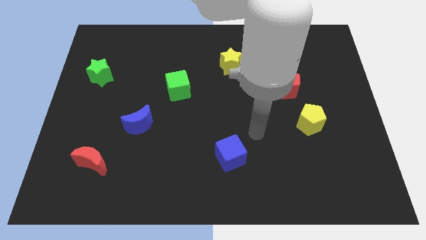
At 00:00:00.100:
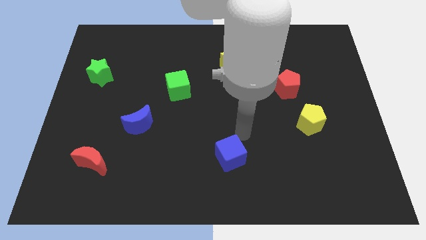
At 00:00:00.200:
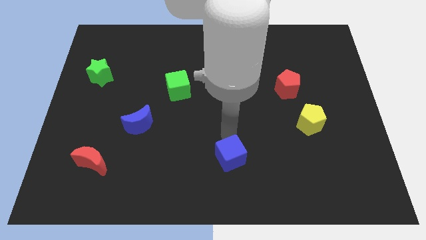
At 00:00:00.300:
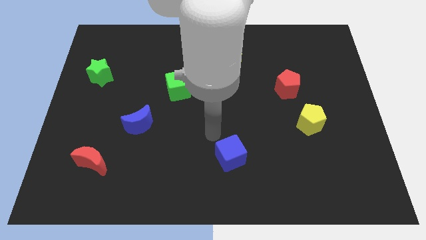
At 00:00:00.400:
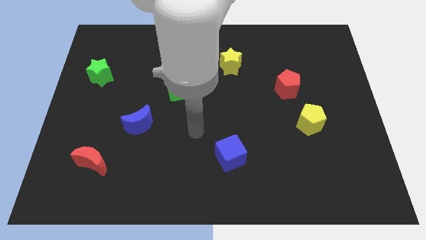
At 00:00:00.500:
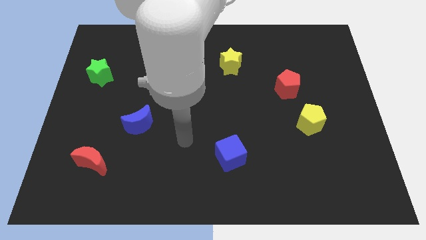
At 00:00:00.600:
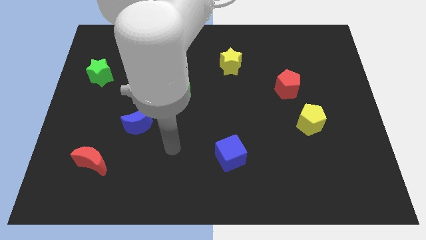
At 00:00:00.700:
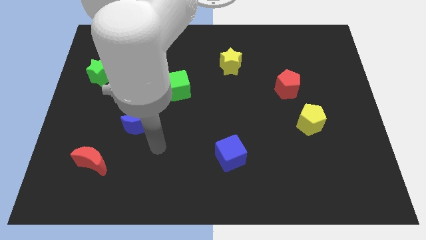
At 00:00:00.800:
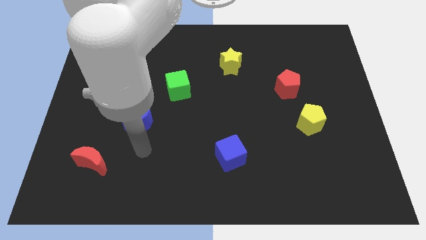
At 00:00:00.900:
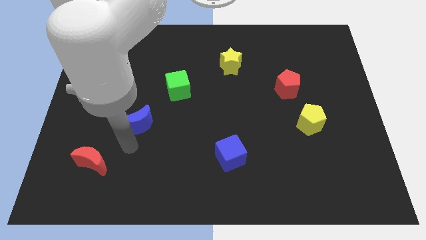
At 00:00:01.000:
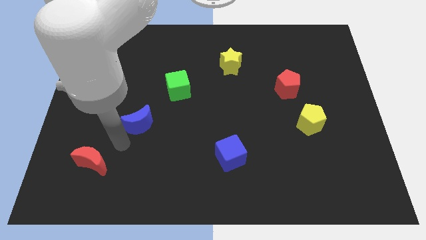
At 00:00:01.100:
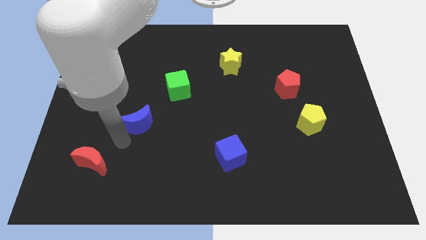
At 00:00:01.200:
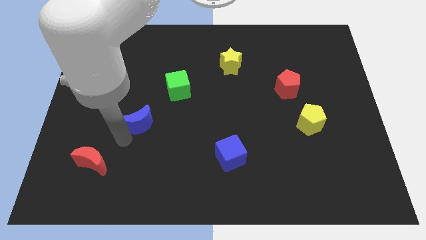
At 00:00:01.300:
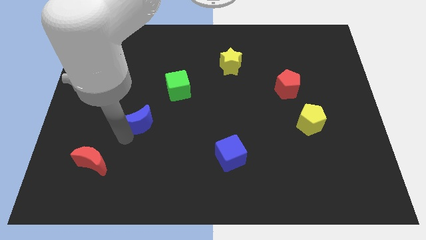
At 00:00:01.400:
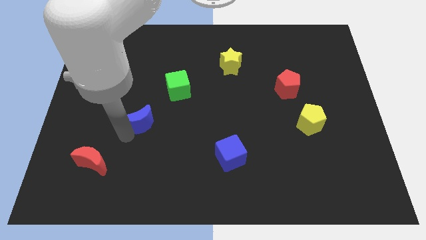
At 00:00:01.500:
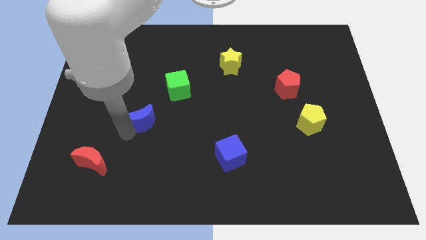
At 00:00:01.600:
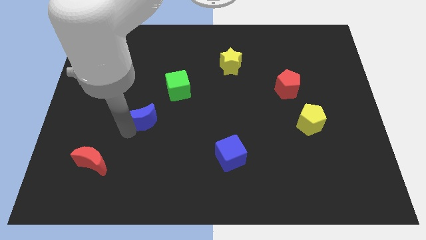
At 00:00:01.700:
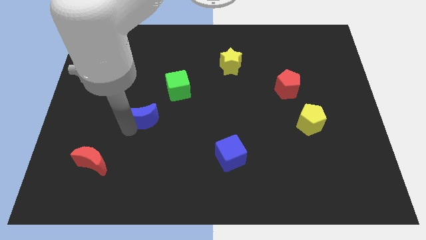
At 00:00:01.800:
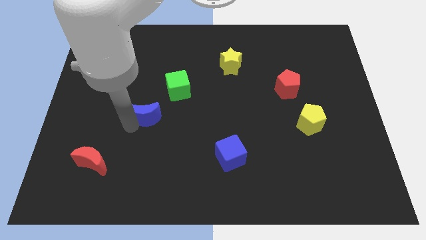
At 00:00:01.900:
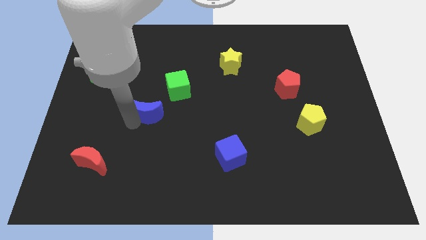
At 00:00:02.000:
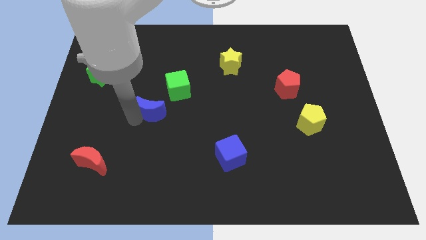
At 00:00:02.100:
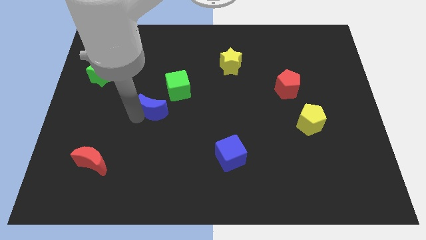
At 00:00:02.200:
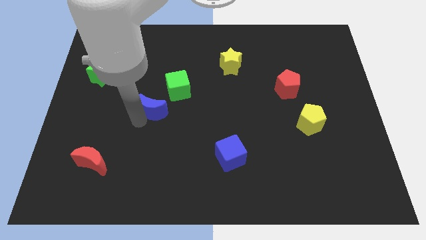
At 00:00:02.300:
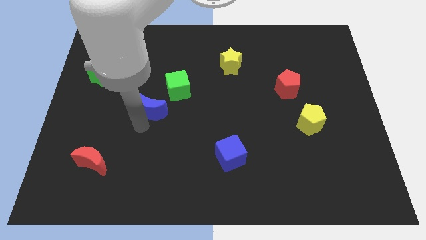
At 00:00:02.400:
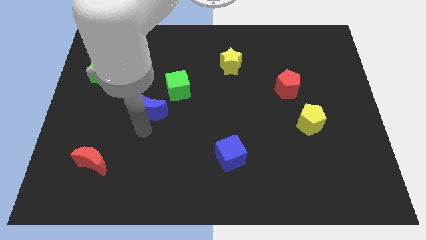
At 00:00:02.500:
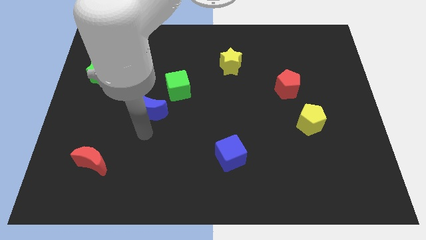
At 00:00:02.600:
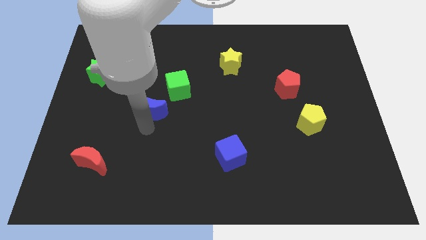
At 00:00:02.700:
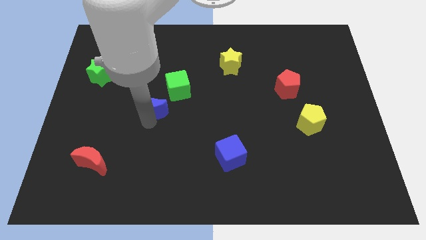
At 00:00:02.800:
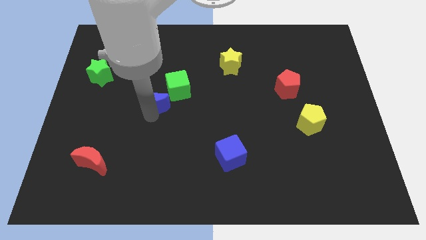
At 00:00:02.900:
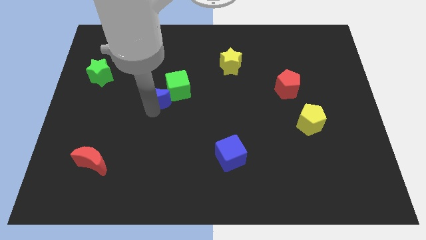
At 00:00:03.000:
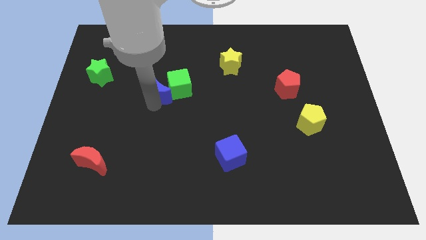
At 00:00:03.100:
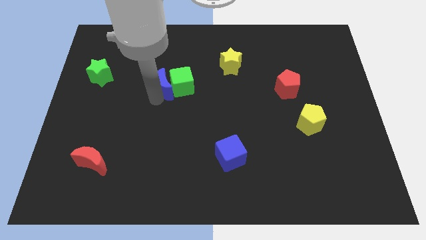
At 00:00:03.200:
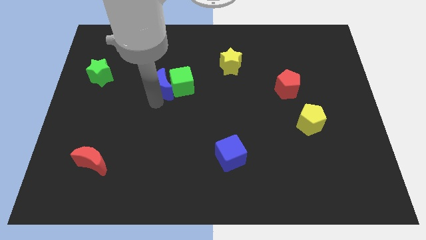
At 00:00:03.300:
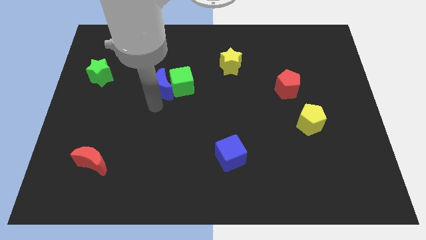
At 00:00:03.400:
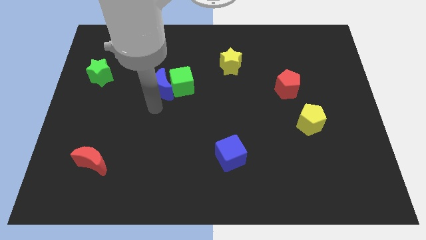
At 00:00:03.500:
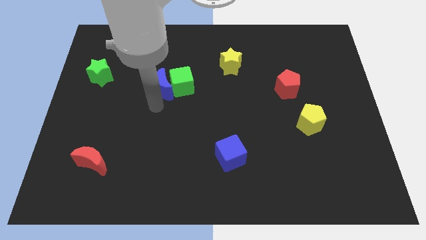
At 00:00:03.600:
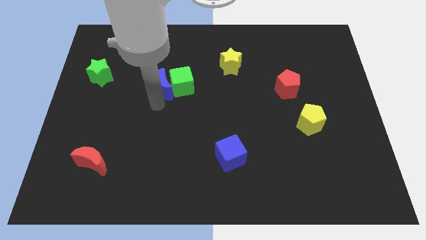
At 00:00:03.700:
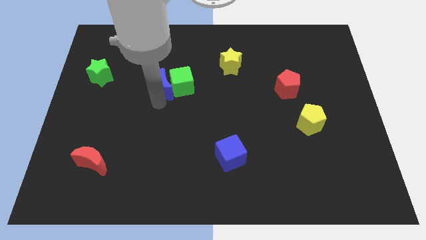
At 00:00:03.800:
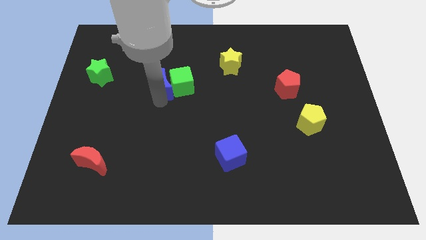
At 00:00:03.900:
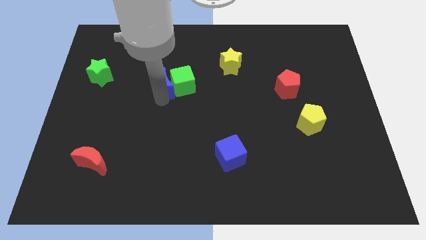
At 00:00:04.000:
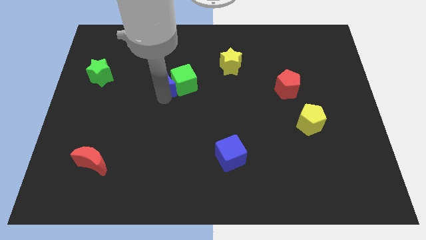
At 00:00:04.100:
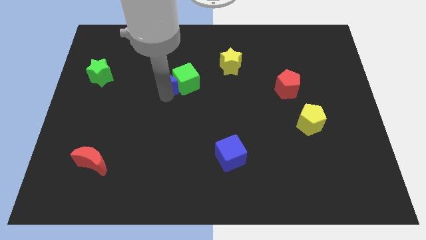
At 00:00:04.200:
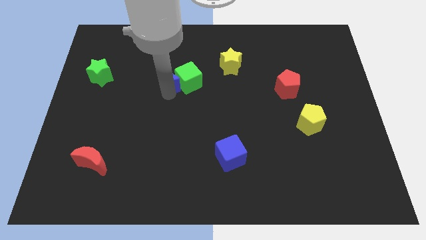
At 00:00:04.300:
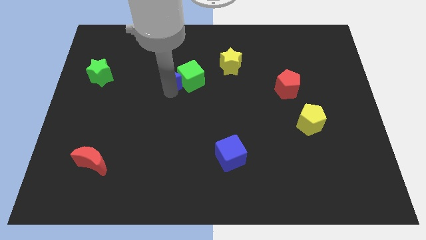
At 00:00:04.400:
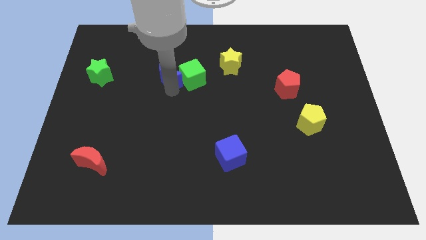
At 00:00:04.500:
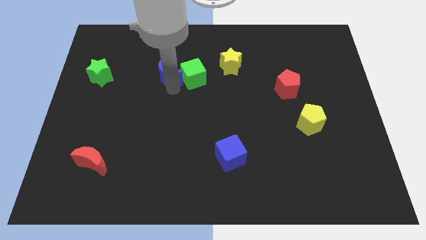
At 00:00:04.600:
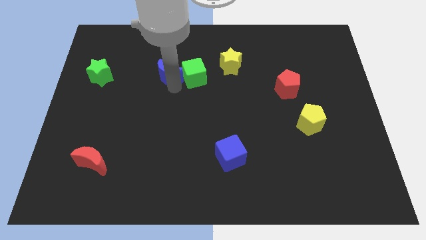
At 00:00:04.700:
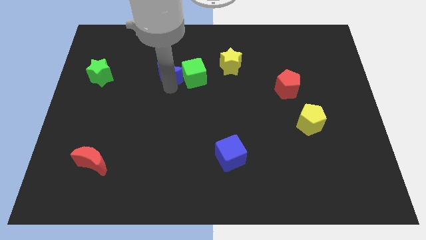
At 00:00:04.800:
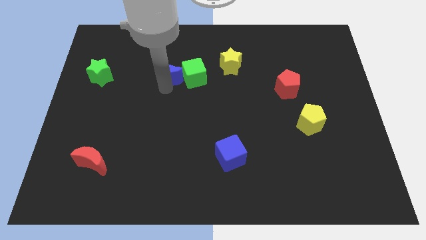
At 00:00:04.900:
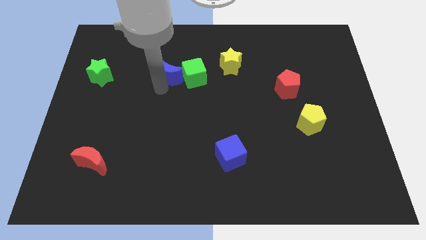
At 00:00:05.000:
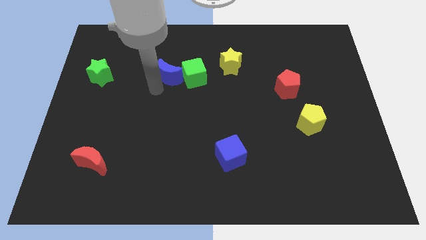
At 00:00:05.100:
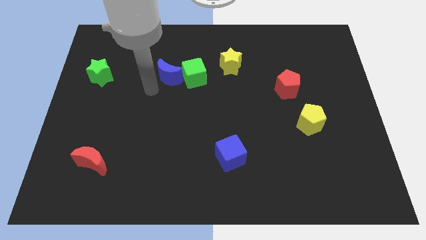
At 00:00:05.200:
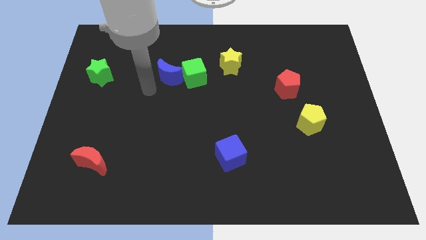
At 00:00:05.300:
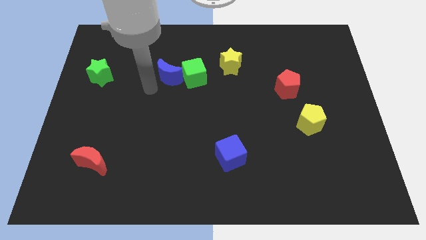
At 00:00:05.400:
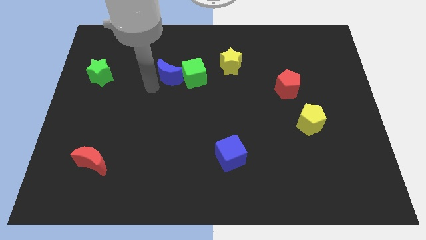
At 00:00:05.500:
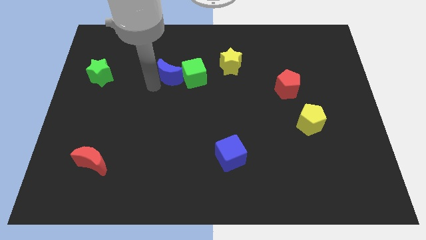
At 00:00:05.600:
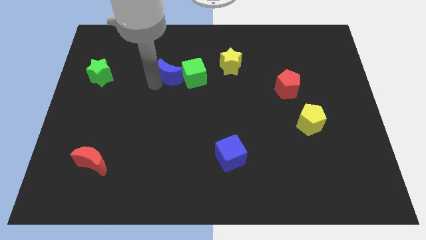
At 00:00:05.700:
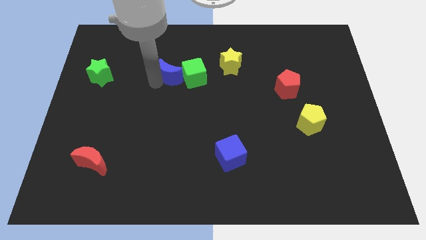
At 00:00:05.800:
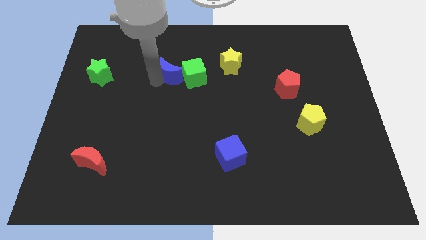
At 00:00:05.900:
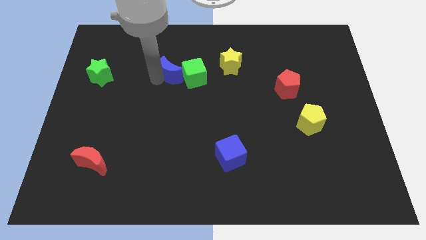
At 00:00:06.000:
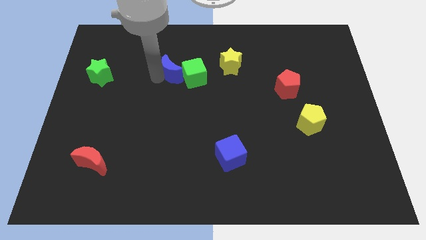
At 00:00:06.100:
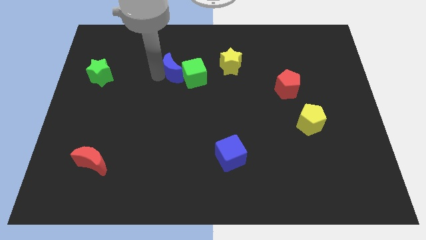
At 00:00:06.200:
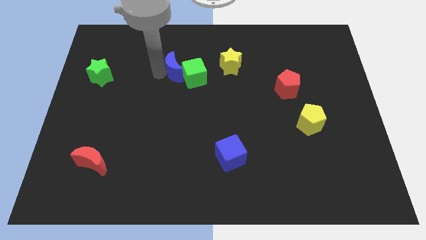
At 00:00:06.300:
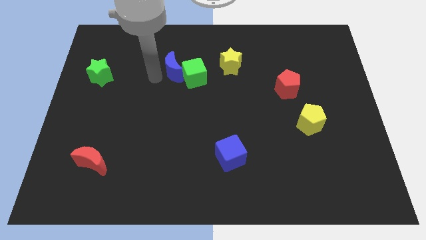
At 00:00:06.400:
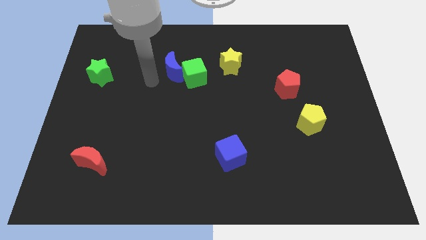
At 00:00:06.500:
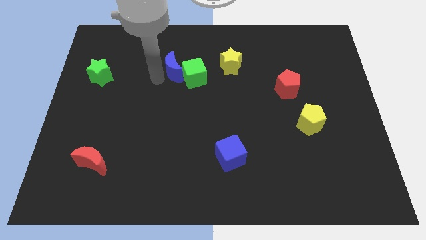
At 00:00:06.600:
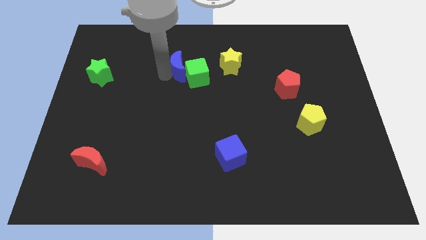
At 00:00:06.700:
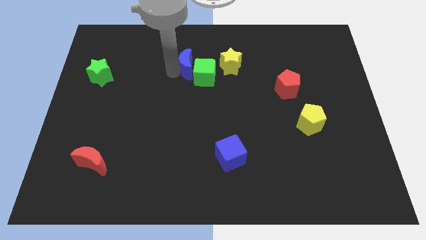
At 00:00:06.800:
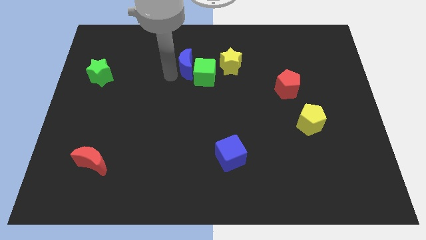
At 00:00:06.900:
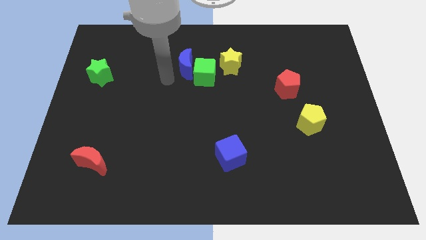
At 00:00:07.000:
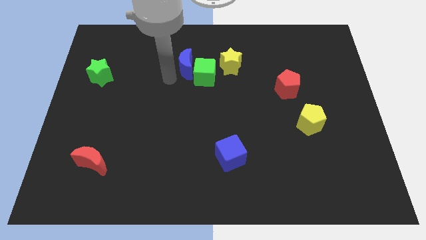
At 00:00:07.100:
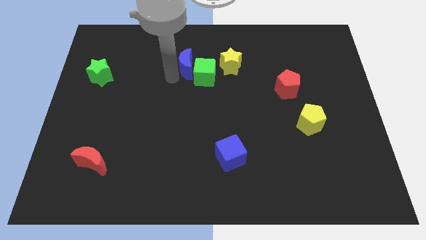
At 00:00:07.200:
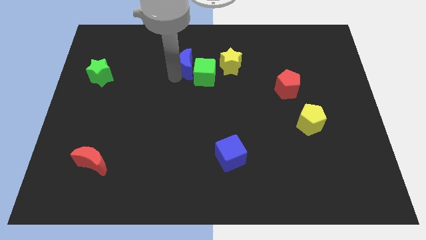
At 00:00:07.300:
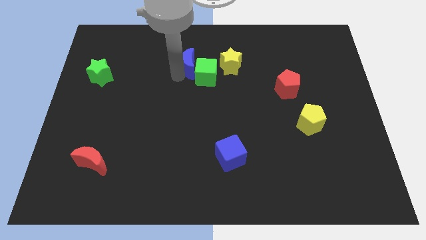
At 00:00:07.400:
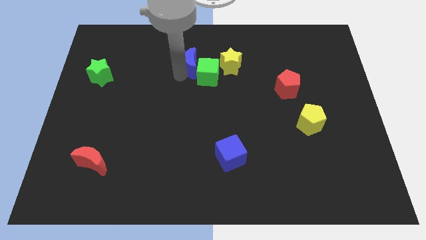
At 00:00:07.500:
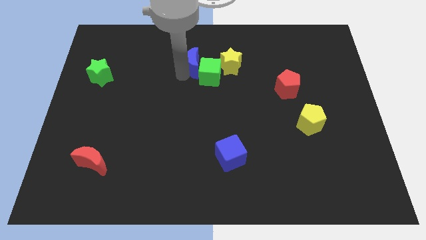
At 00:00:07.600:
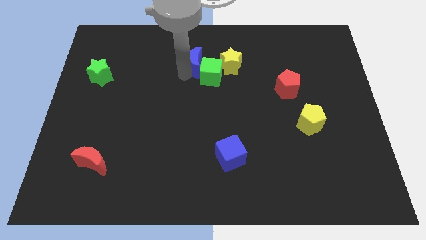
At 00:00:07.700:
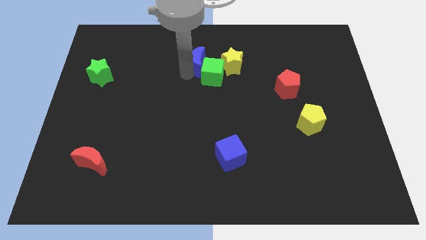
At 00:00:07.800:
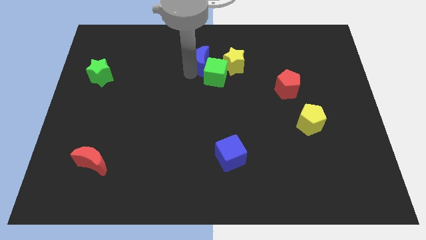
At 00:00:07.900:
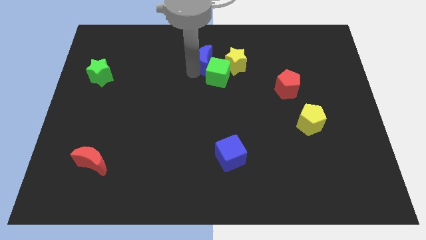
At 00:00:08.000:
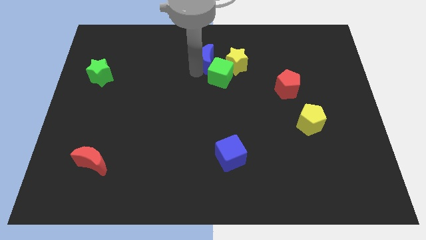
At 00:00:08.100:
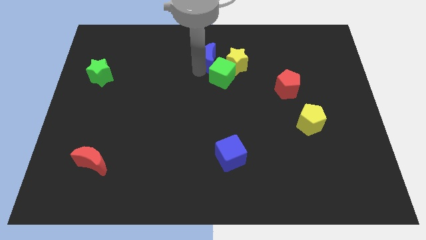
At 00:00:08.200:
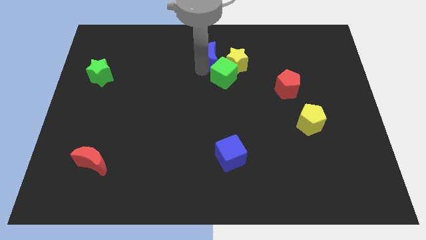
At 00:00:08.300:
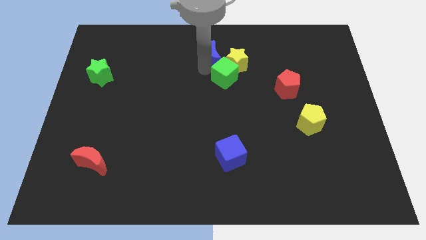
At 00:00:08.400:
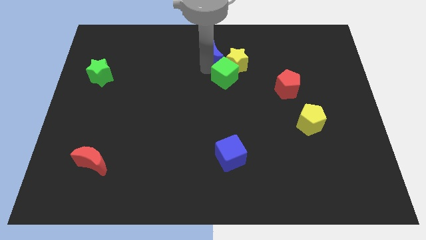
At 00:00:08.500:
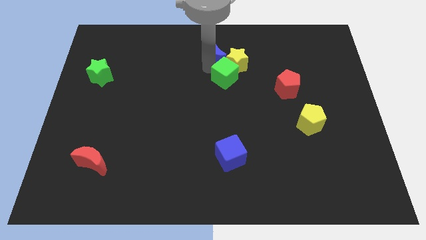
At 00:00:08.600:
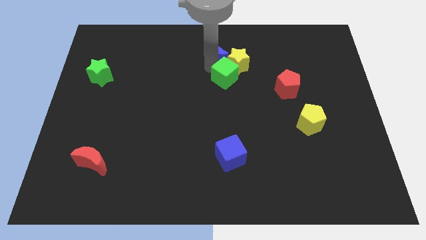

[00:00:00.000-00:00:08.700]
move the blue moon to the top side
